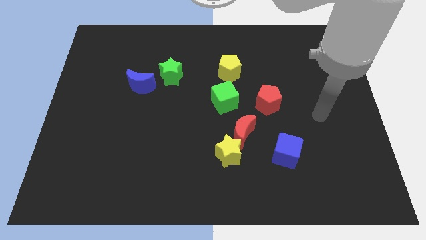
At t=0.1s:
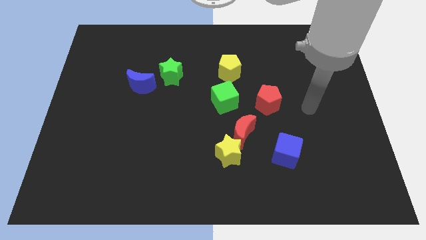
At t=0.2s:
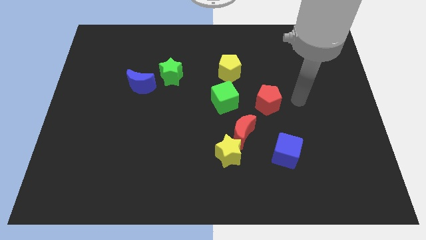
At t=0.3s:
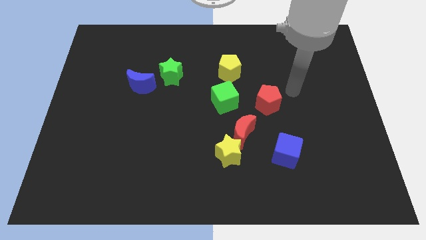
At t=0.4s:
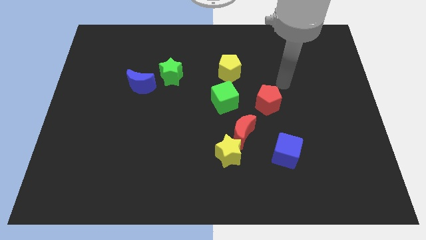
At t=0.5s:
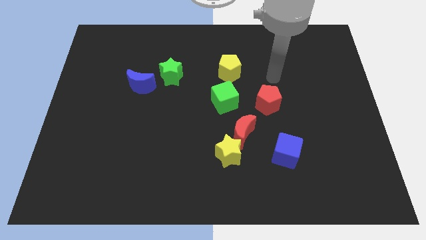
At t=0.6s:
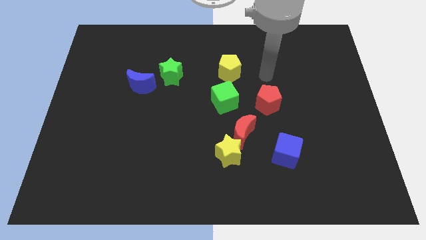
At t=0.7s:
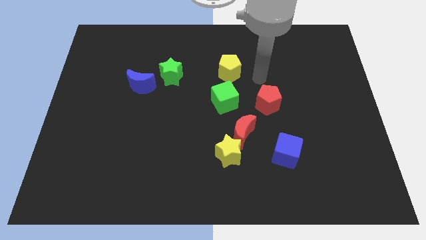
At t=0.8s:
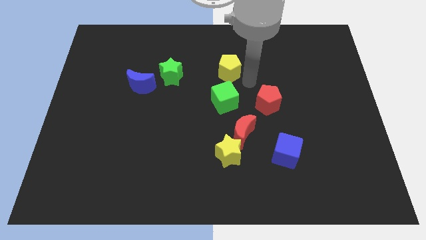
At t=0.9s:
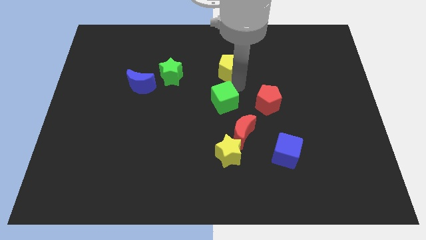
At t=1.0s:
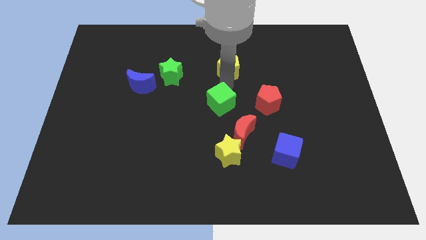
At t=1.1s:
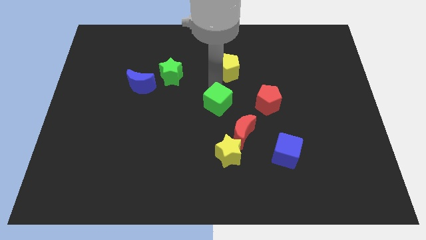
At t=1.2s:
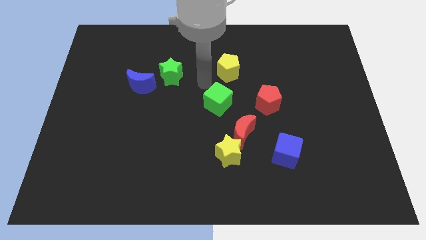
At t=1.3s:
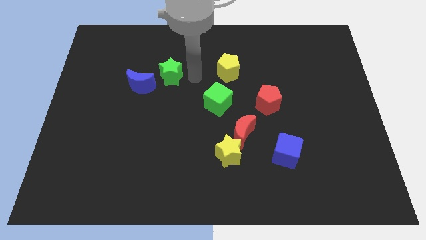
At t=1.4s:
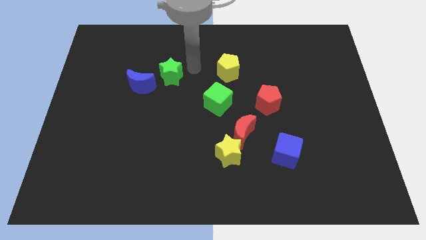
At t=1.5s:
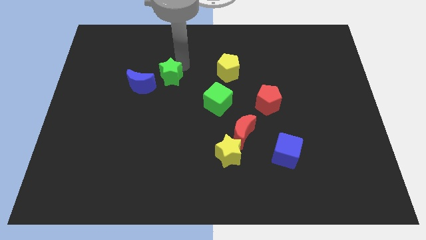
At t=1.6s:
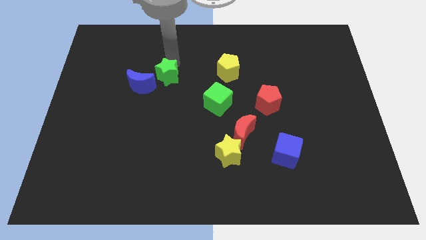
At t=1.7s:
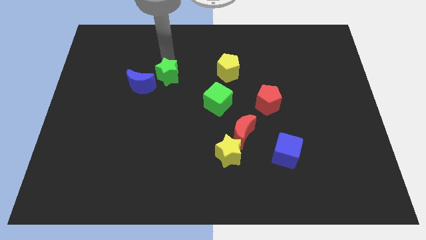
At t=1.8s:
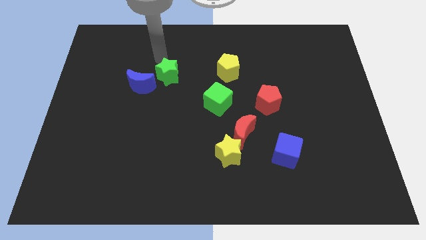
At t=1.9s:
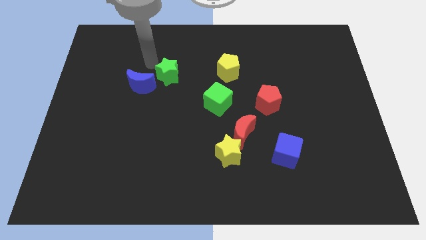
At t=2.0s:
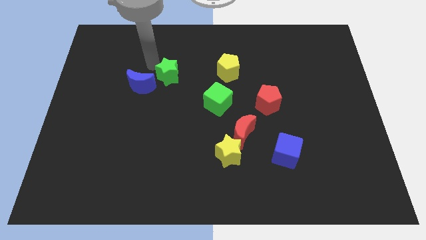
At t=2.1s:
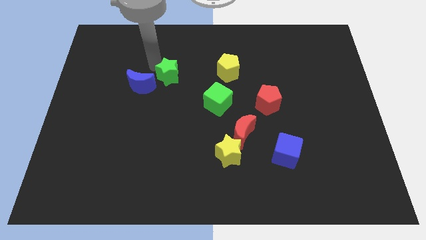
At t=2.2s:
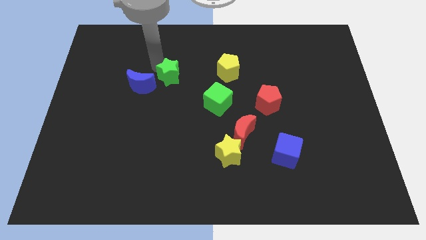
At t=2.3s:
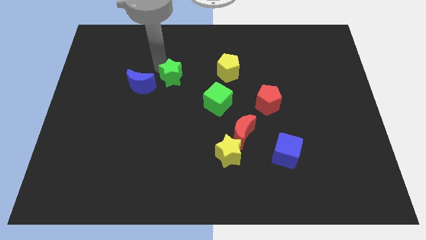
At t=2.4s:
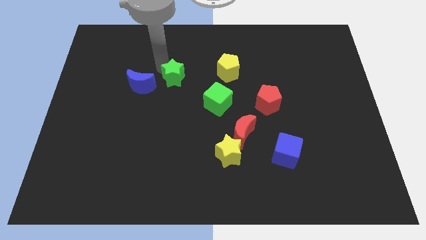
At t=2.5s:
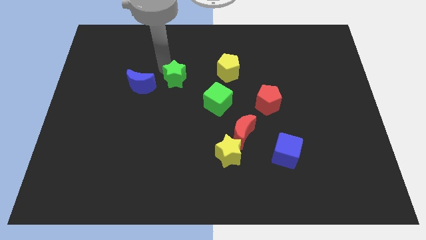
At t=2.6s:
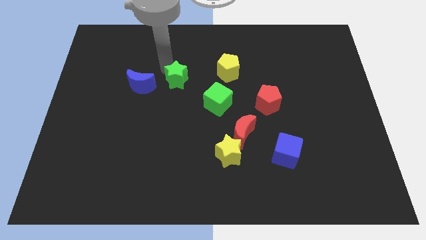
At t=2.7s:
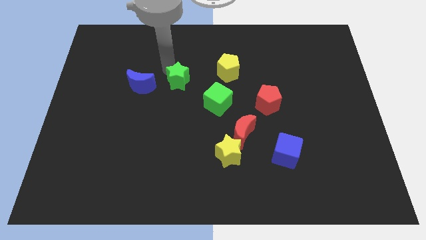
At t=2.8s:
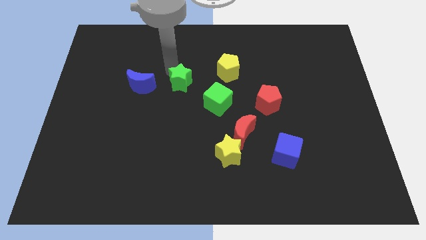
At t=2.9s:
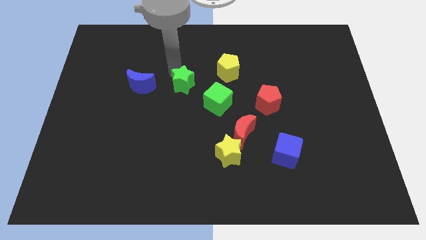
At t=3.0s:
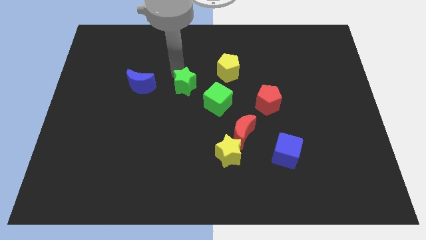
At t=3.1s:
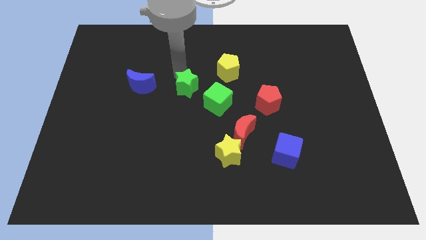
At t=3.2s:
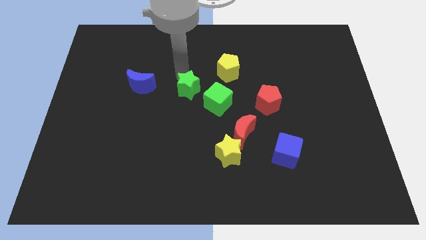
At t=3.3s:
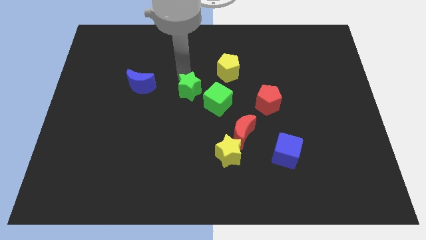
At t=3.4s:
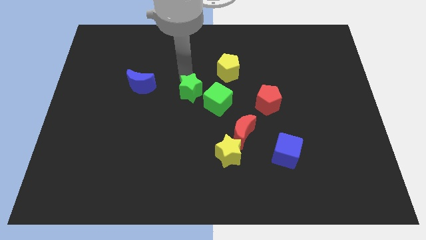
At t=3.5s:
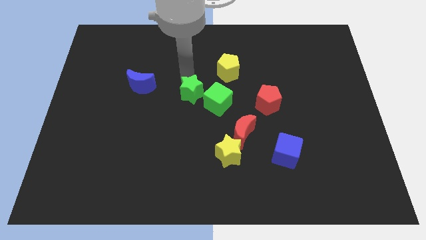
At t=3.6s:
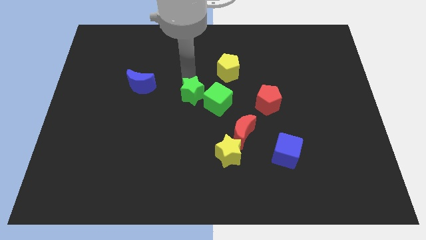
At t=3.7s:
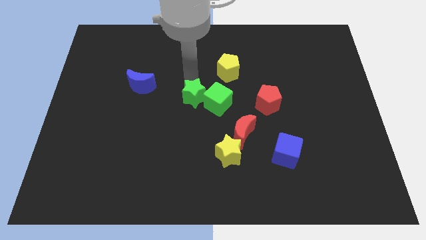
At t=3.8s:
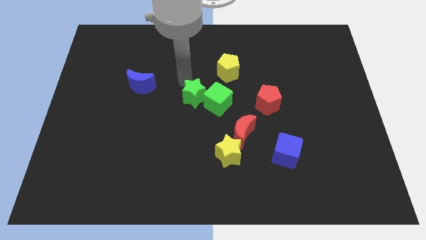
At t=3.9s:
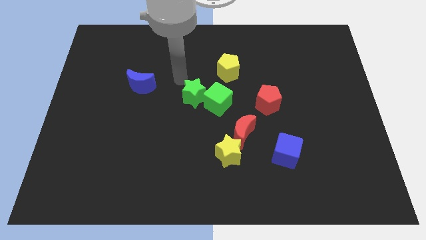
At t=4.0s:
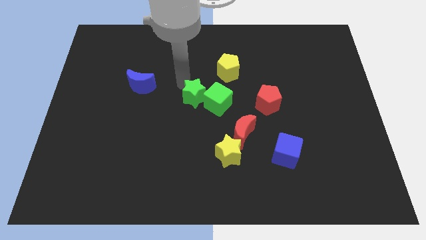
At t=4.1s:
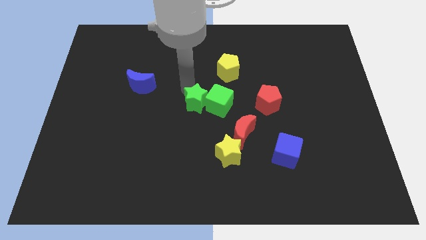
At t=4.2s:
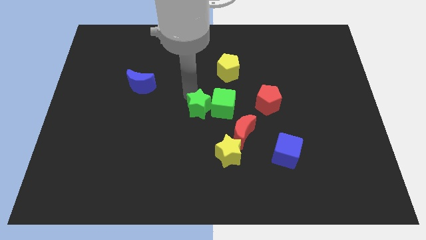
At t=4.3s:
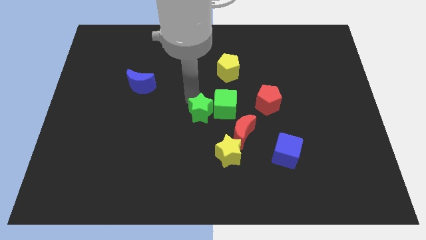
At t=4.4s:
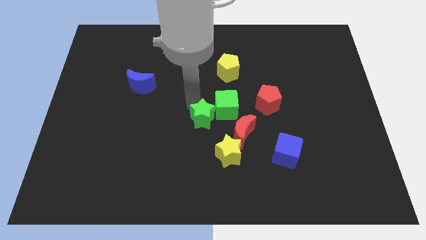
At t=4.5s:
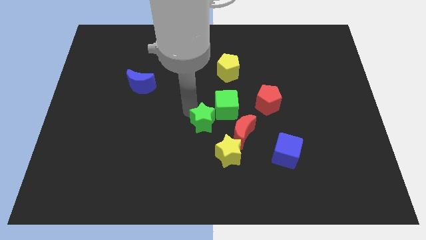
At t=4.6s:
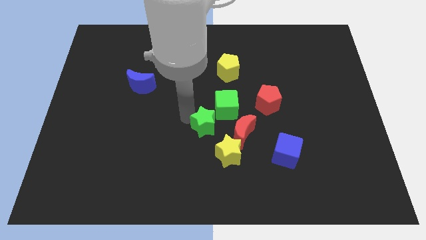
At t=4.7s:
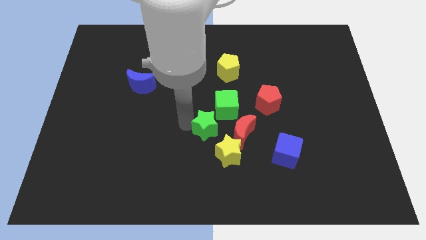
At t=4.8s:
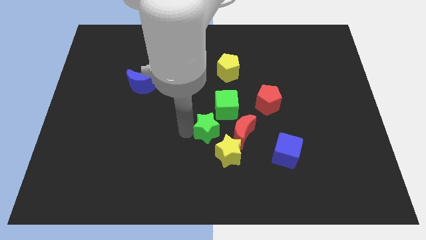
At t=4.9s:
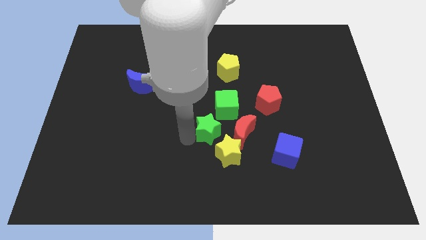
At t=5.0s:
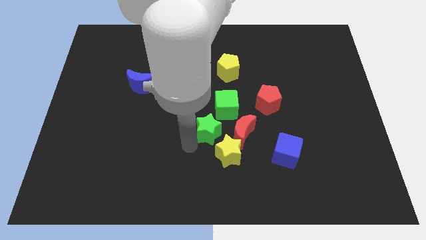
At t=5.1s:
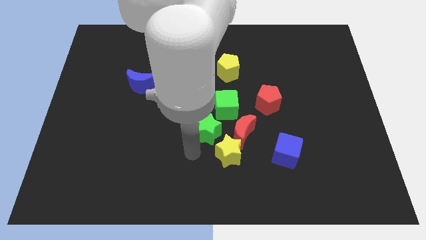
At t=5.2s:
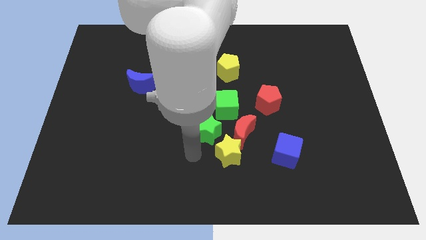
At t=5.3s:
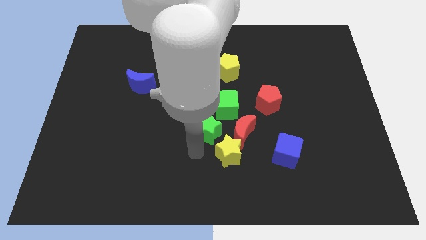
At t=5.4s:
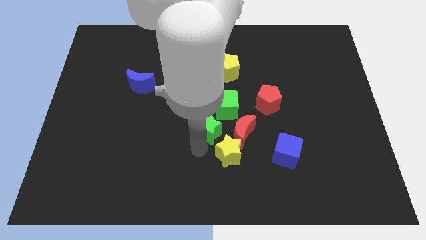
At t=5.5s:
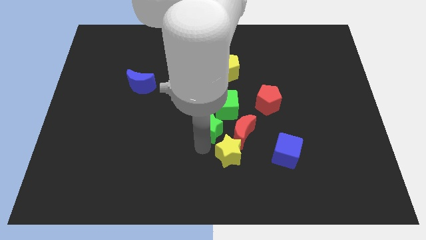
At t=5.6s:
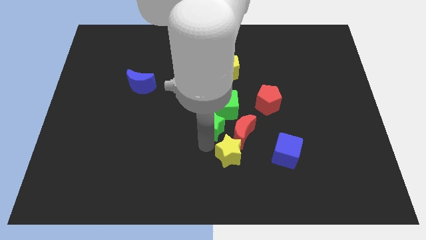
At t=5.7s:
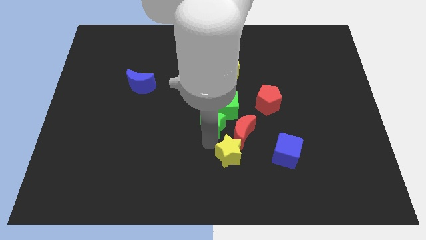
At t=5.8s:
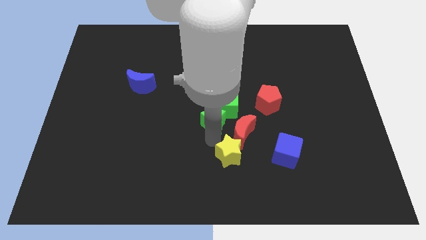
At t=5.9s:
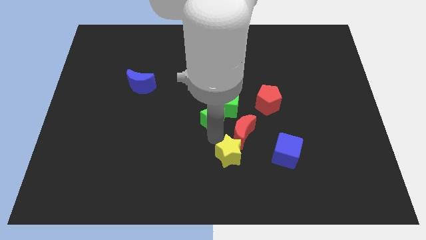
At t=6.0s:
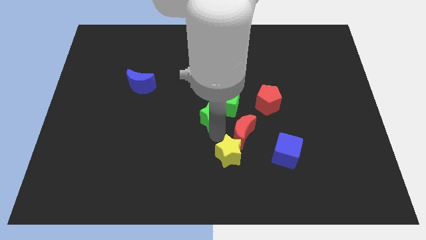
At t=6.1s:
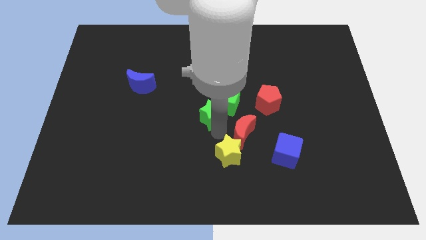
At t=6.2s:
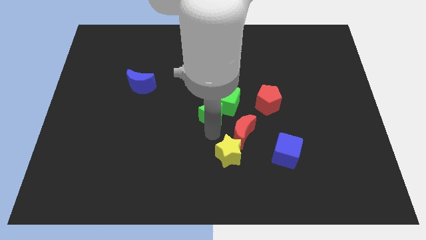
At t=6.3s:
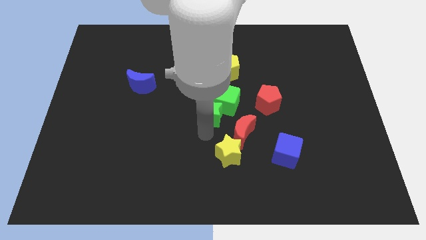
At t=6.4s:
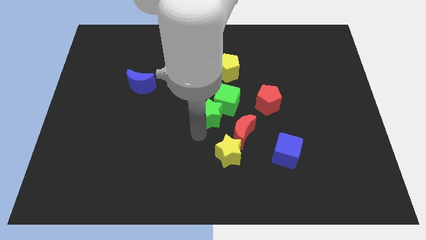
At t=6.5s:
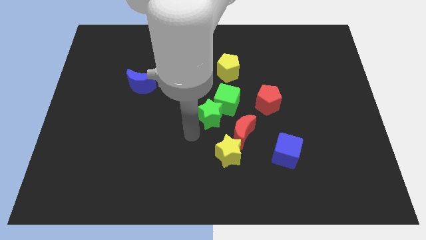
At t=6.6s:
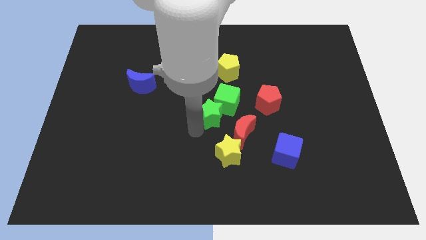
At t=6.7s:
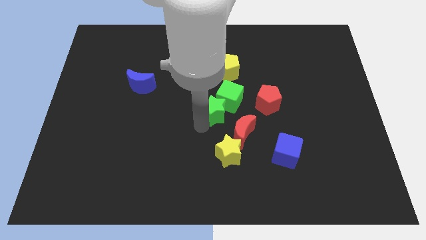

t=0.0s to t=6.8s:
slide the green star to the bottom of the yellow pentagon
